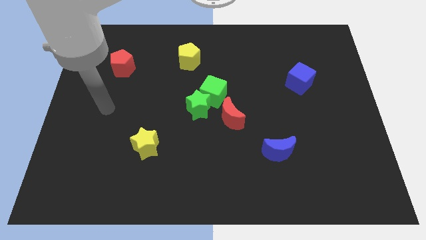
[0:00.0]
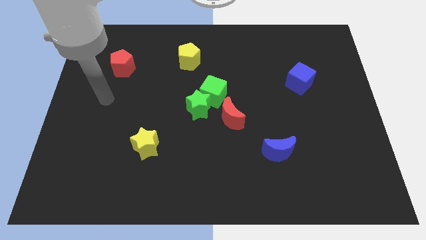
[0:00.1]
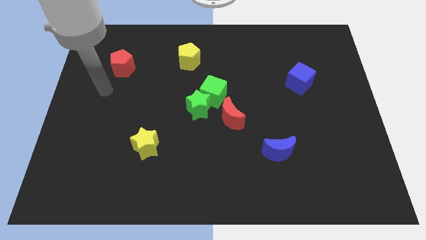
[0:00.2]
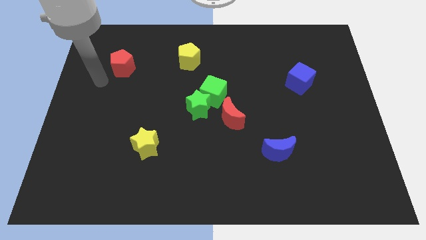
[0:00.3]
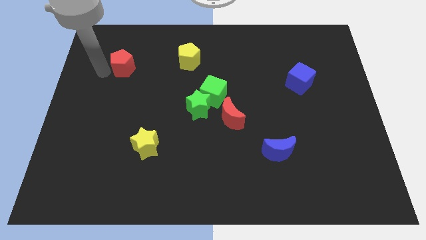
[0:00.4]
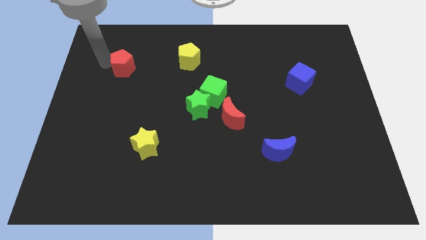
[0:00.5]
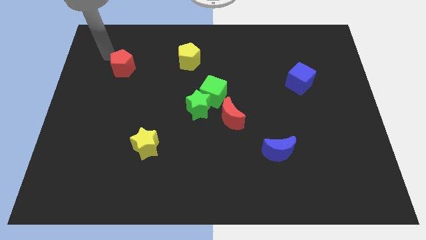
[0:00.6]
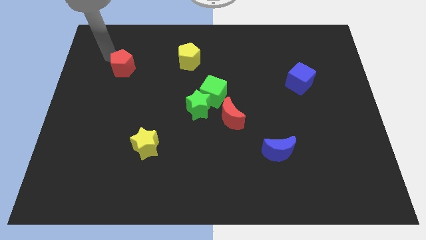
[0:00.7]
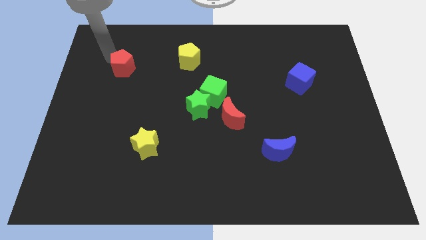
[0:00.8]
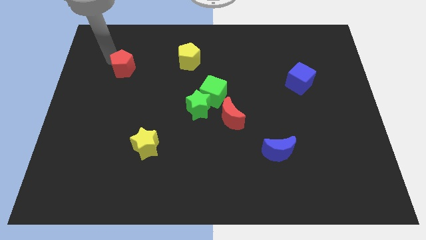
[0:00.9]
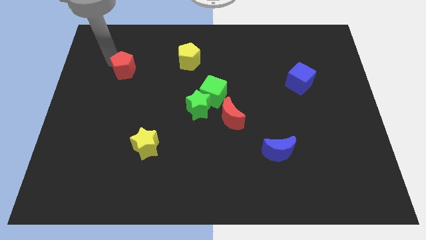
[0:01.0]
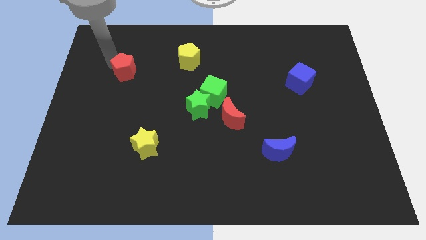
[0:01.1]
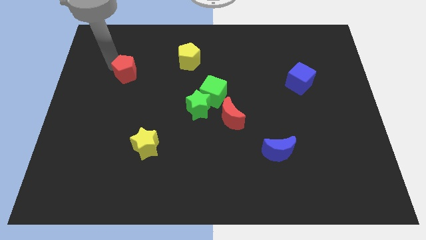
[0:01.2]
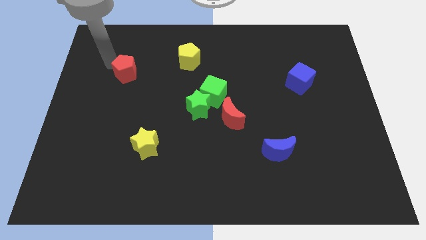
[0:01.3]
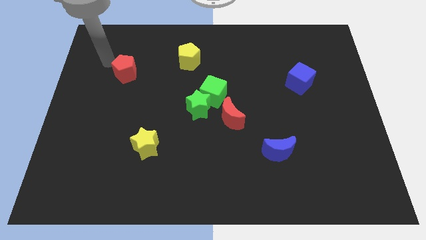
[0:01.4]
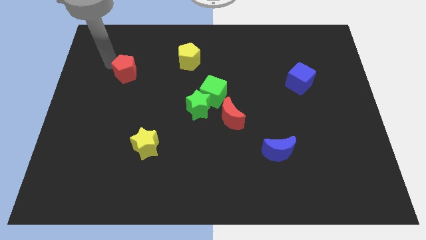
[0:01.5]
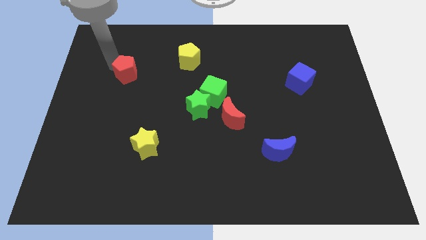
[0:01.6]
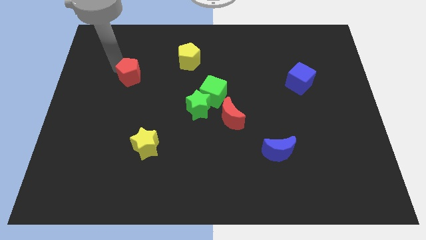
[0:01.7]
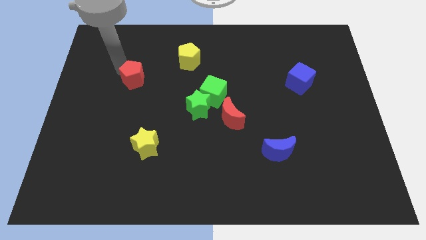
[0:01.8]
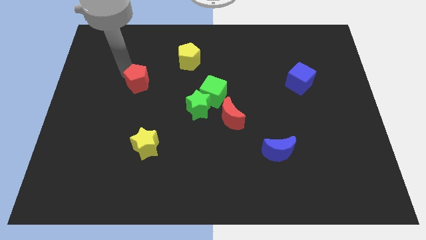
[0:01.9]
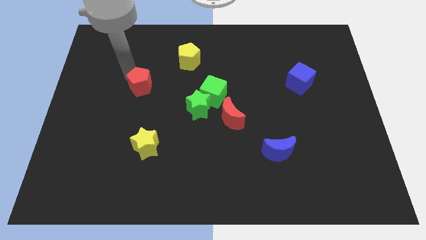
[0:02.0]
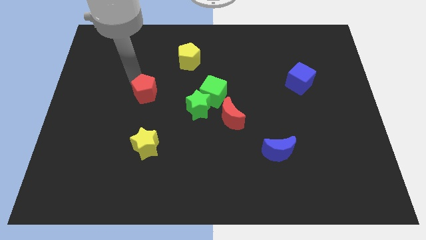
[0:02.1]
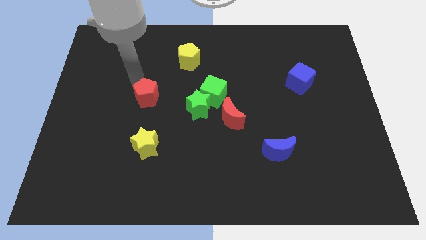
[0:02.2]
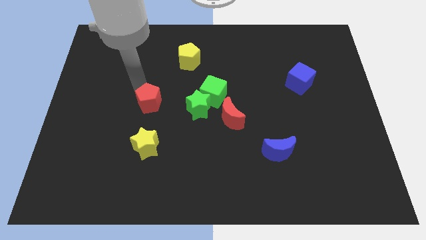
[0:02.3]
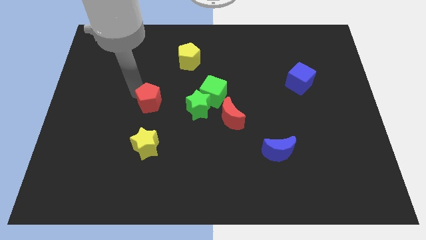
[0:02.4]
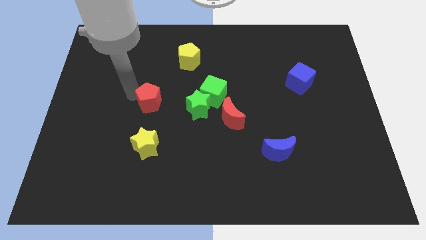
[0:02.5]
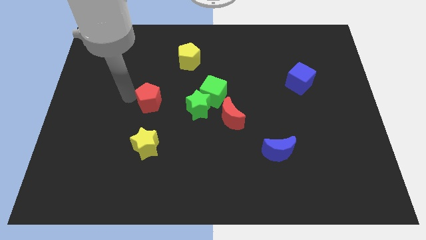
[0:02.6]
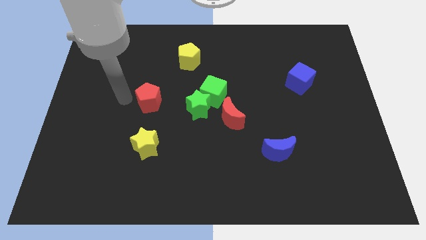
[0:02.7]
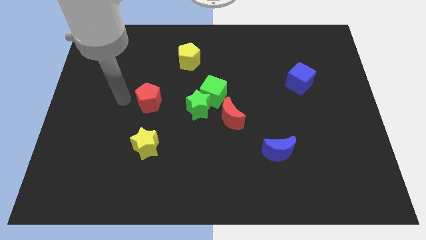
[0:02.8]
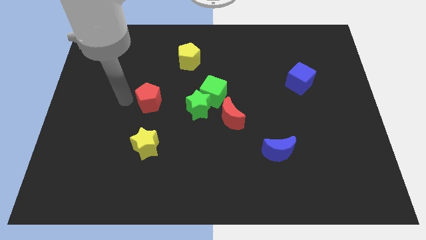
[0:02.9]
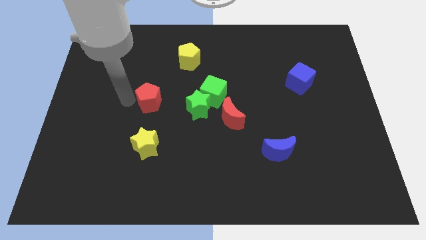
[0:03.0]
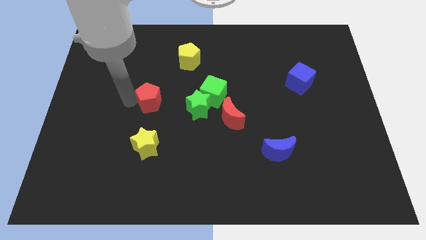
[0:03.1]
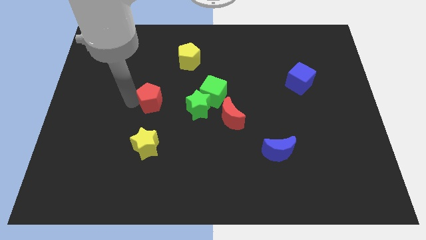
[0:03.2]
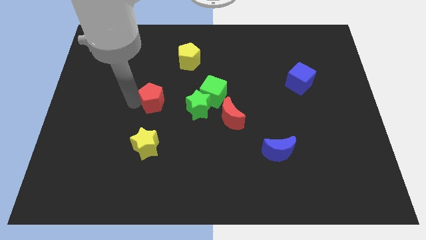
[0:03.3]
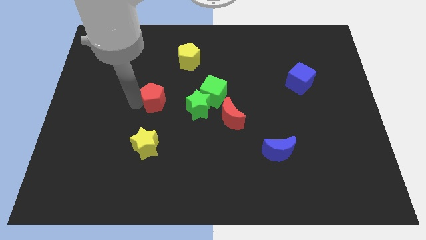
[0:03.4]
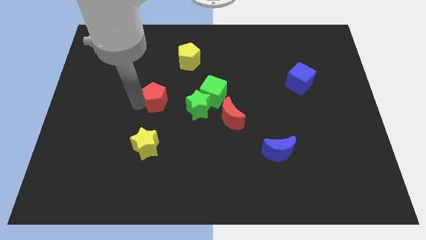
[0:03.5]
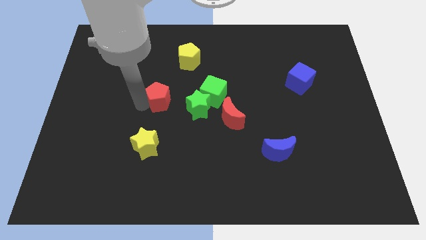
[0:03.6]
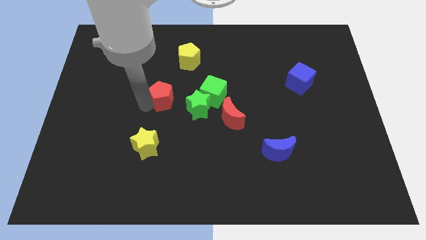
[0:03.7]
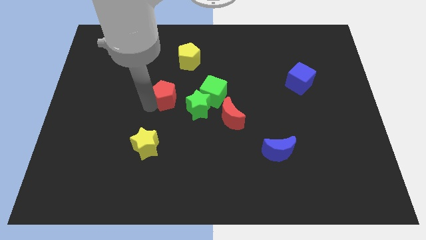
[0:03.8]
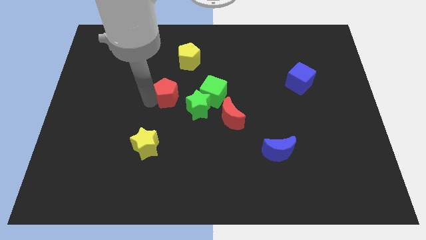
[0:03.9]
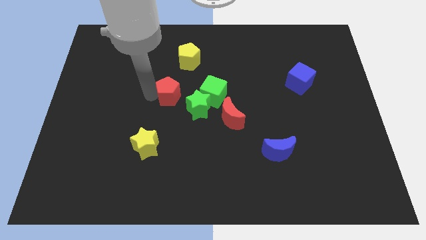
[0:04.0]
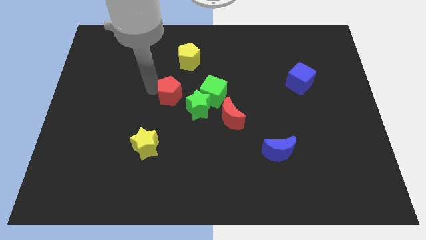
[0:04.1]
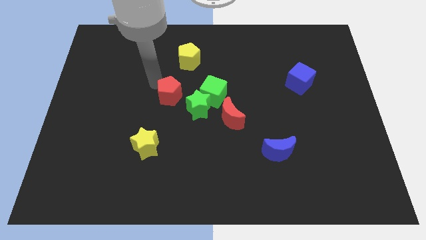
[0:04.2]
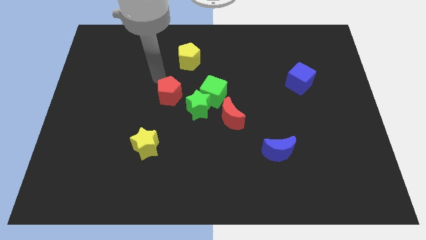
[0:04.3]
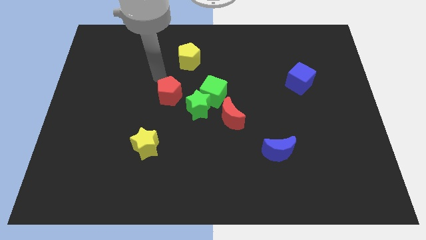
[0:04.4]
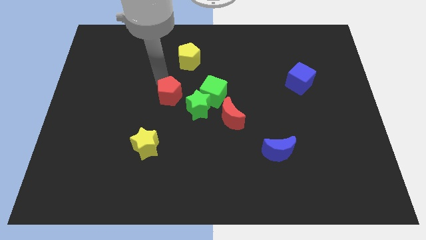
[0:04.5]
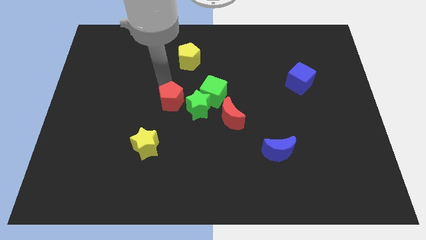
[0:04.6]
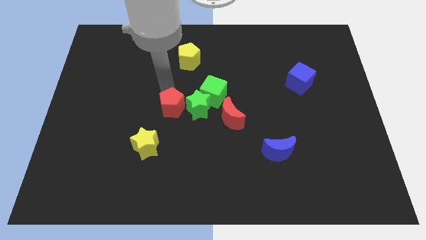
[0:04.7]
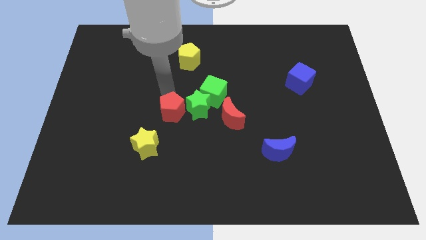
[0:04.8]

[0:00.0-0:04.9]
move the red pentagon downwards and to the right

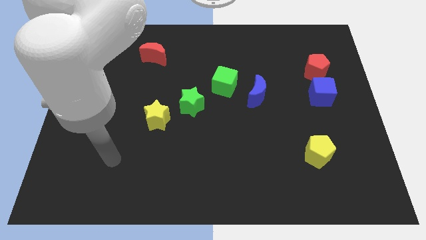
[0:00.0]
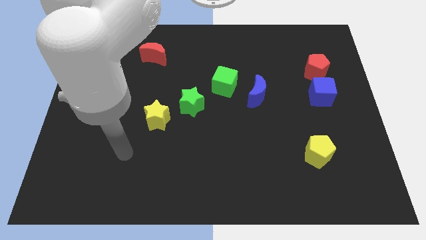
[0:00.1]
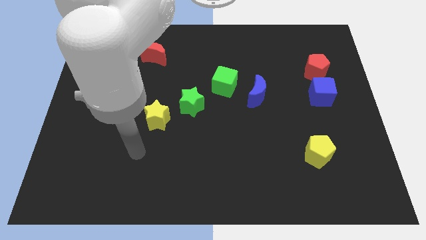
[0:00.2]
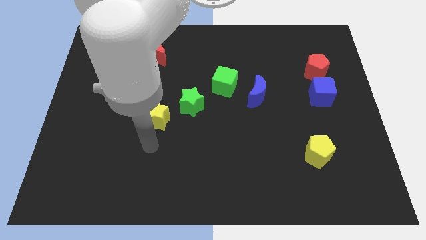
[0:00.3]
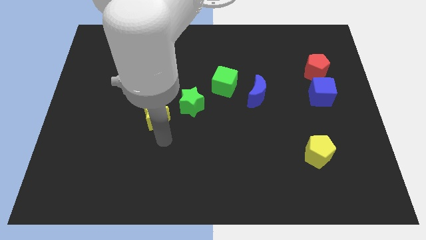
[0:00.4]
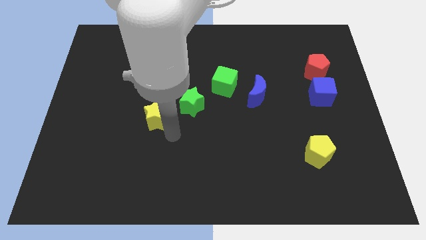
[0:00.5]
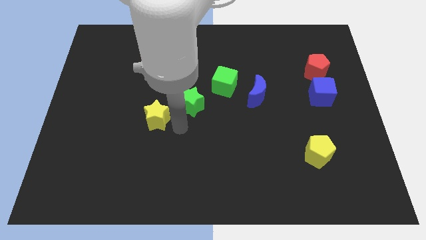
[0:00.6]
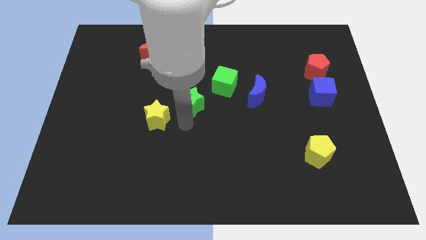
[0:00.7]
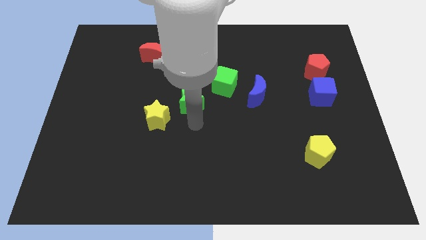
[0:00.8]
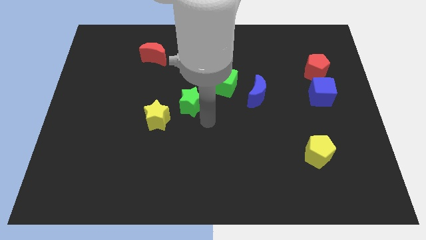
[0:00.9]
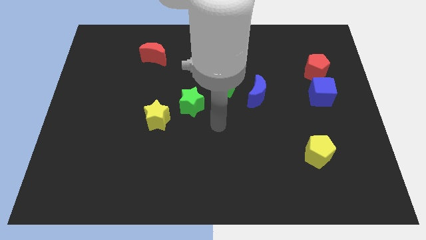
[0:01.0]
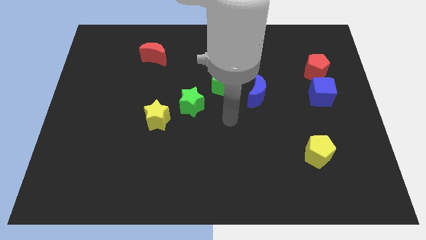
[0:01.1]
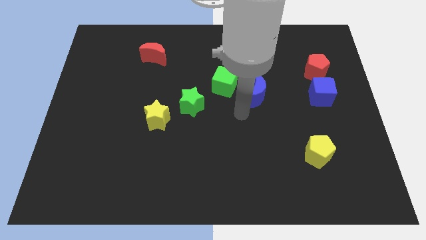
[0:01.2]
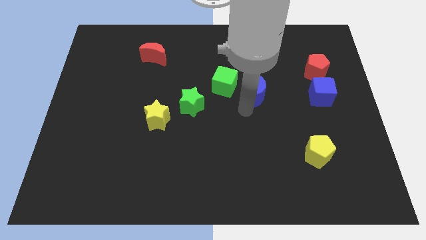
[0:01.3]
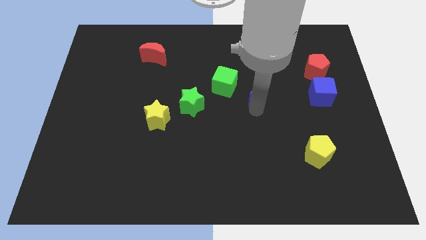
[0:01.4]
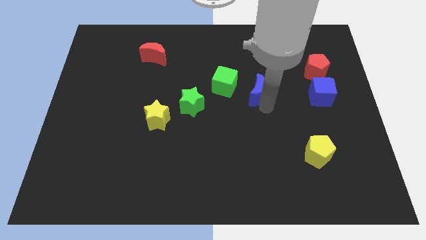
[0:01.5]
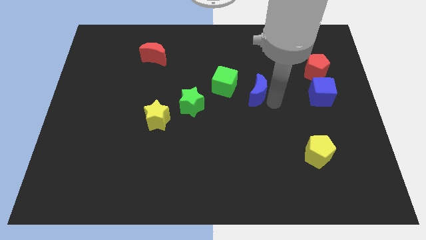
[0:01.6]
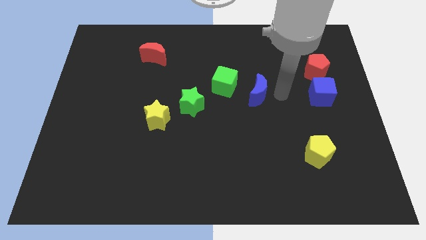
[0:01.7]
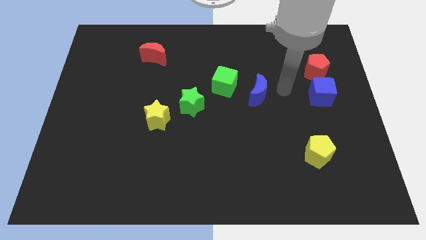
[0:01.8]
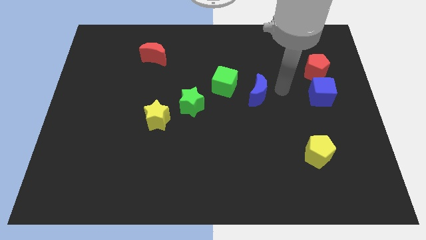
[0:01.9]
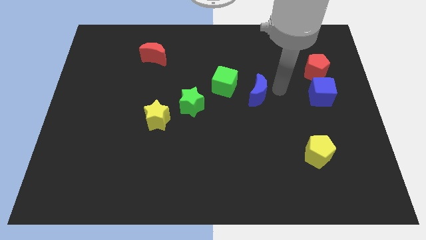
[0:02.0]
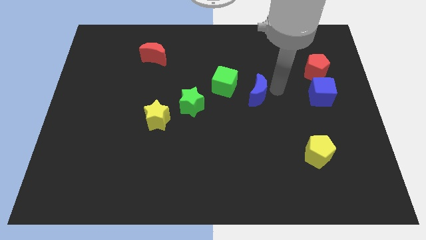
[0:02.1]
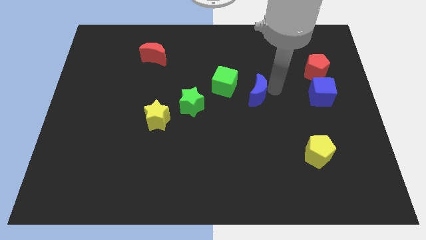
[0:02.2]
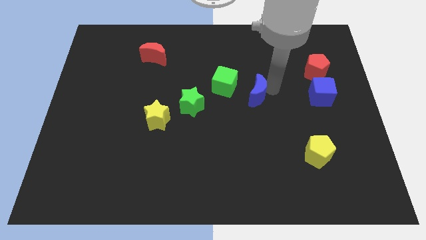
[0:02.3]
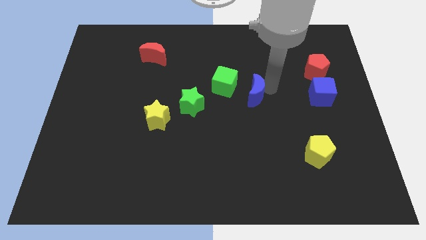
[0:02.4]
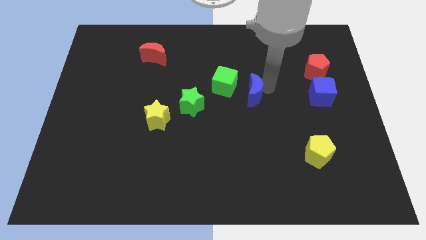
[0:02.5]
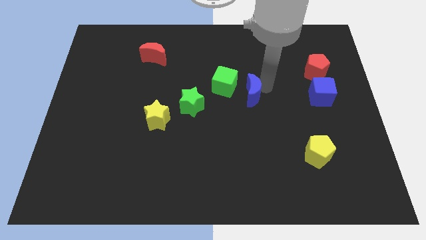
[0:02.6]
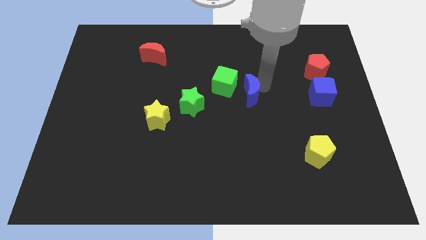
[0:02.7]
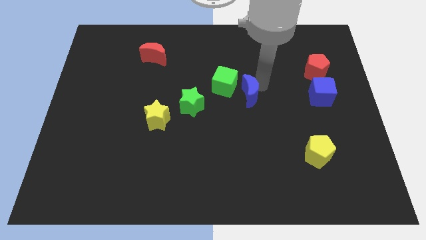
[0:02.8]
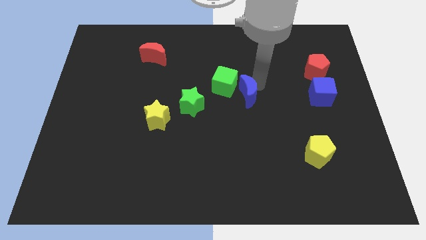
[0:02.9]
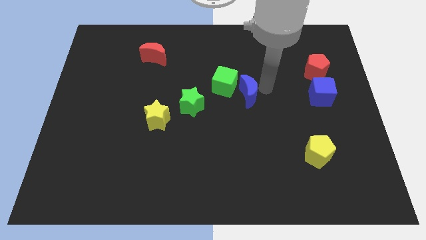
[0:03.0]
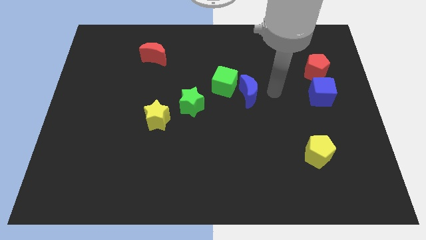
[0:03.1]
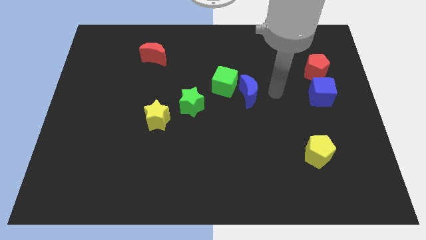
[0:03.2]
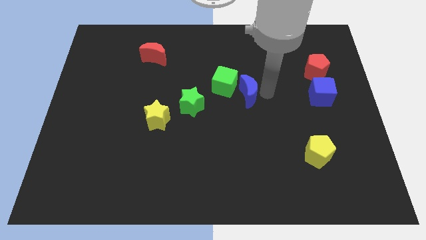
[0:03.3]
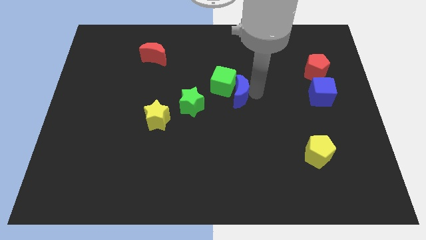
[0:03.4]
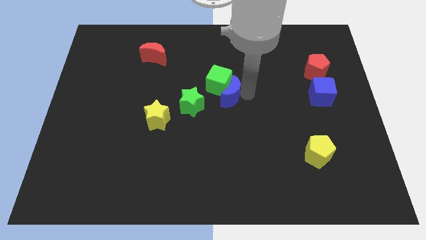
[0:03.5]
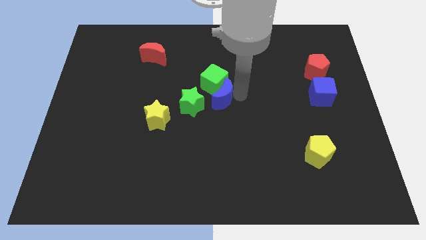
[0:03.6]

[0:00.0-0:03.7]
slightly push the blue moon to the left
